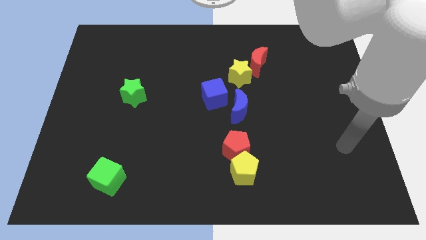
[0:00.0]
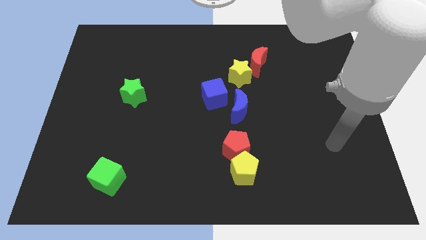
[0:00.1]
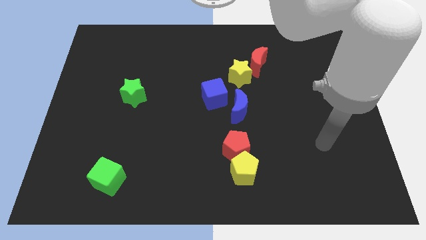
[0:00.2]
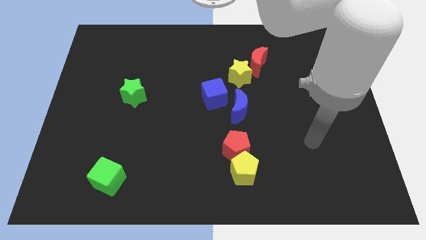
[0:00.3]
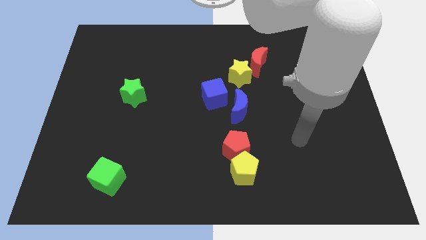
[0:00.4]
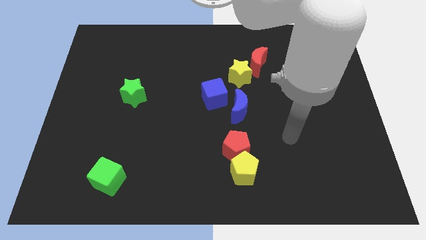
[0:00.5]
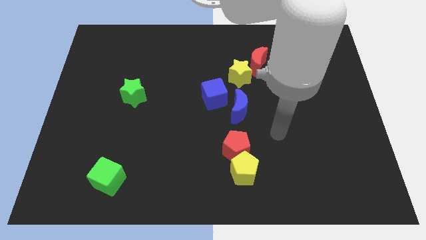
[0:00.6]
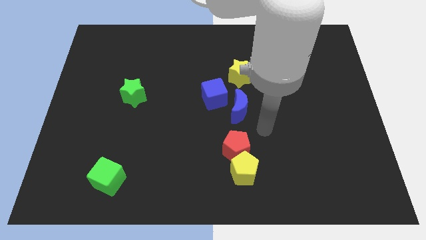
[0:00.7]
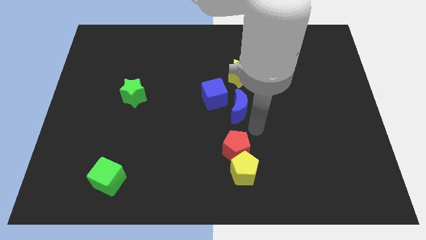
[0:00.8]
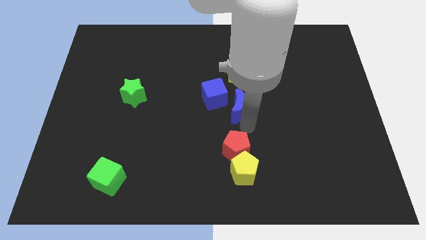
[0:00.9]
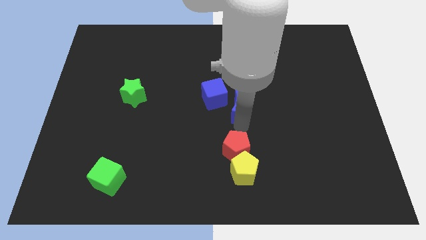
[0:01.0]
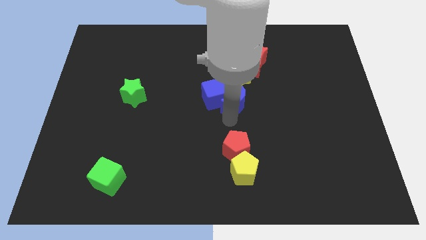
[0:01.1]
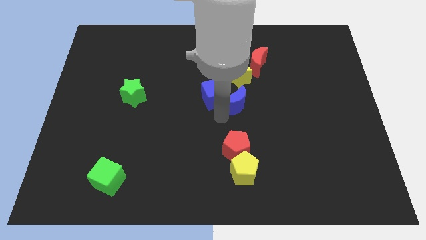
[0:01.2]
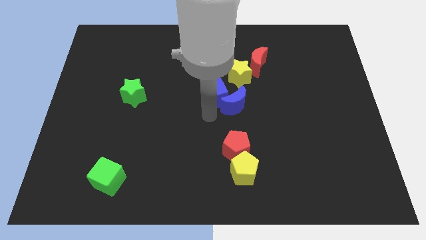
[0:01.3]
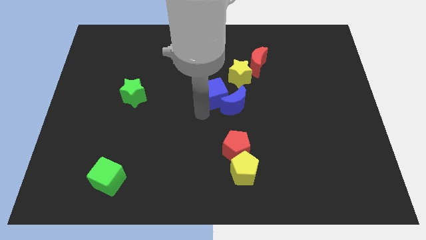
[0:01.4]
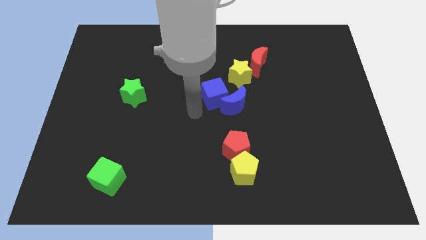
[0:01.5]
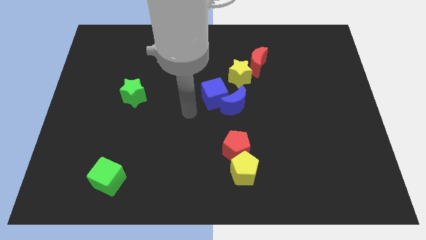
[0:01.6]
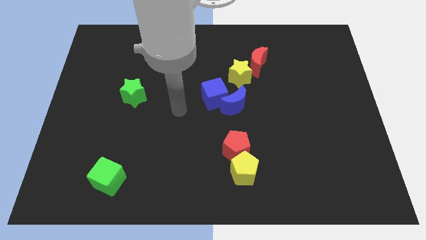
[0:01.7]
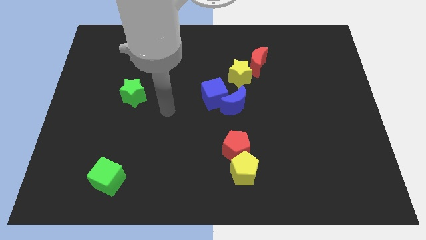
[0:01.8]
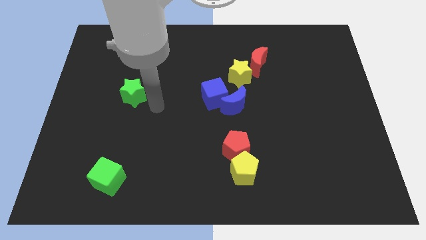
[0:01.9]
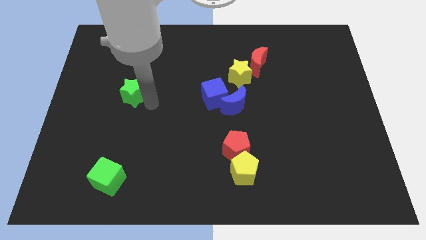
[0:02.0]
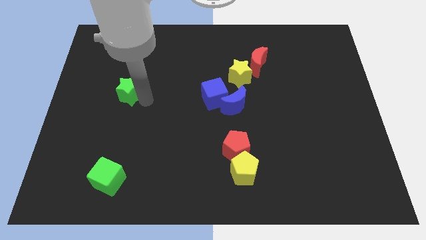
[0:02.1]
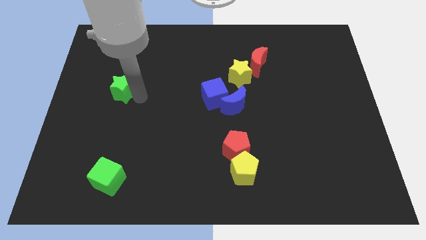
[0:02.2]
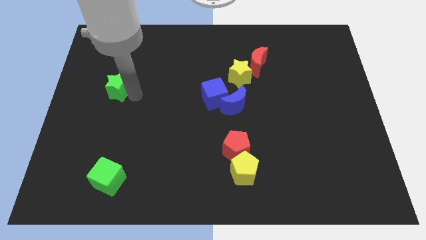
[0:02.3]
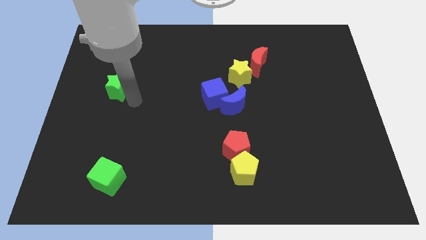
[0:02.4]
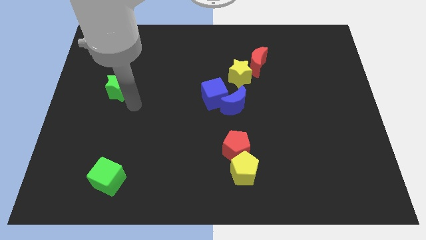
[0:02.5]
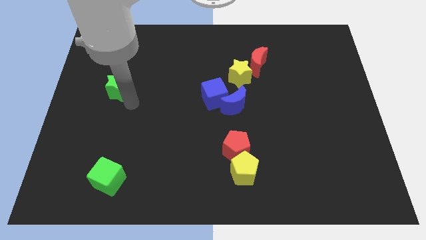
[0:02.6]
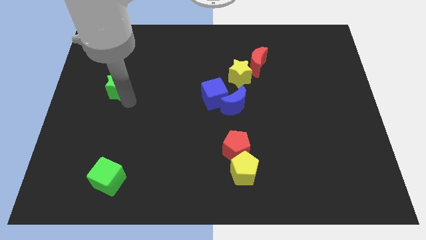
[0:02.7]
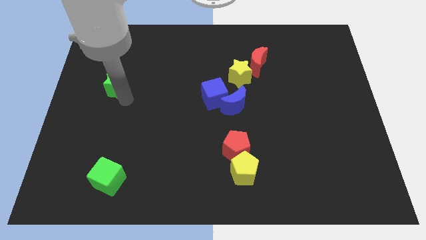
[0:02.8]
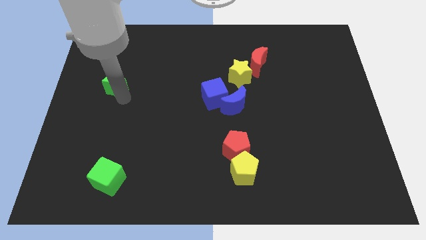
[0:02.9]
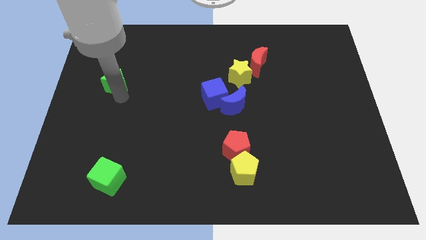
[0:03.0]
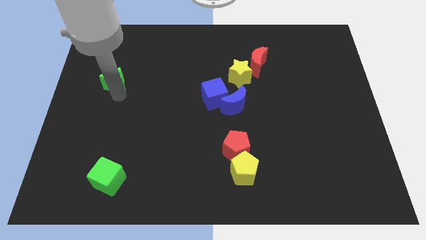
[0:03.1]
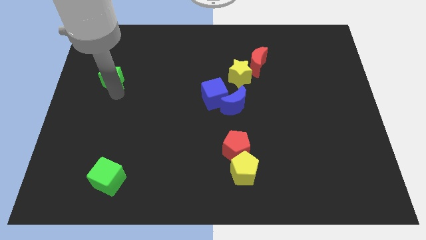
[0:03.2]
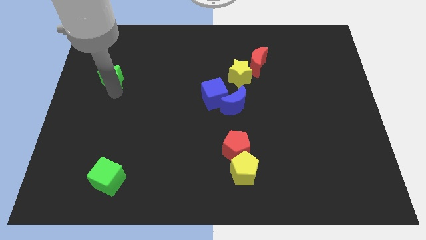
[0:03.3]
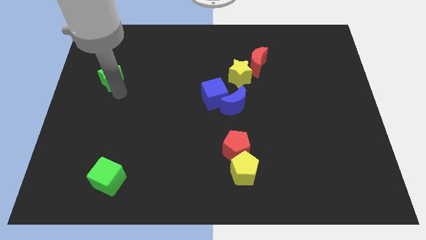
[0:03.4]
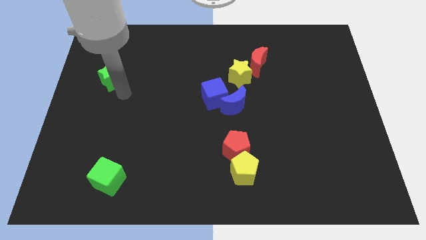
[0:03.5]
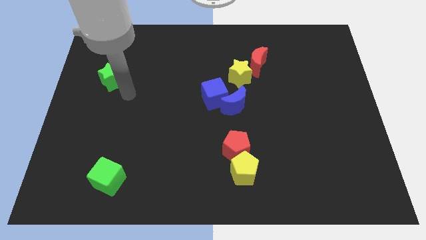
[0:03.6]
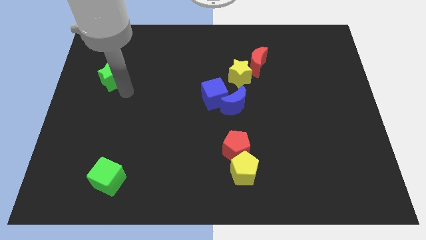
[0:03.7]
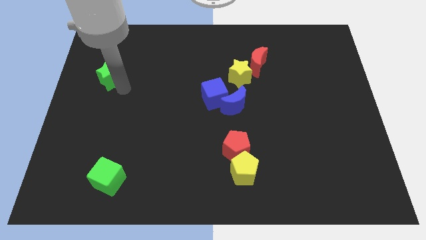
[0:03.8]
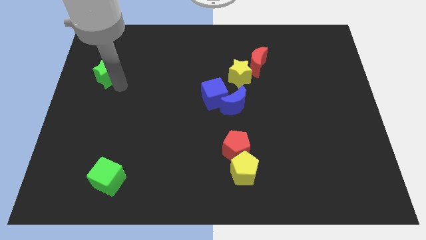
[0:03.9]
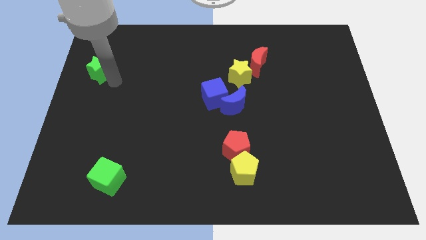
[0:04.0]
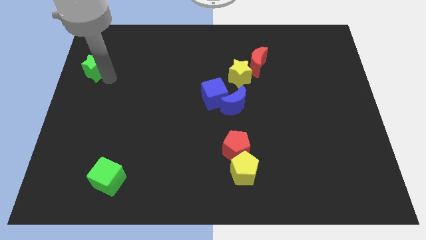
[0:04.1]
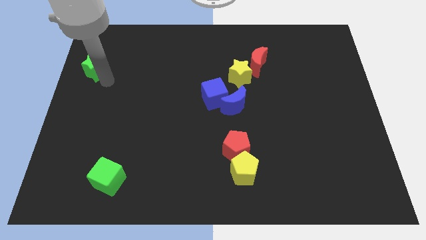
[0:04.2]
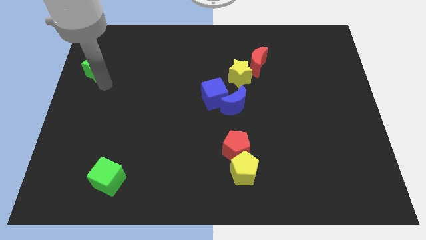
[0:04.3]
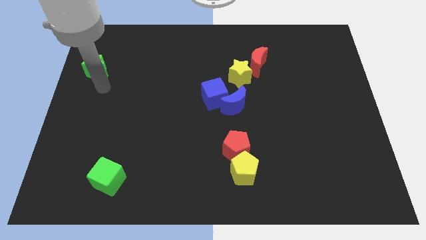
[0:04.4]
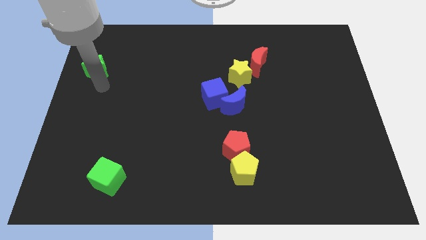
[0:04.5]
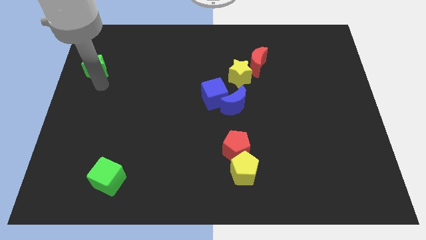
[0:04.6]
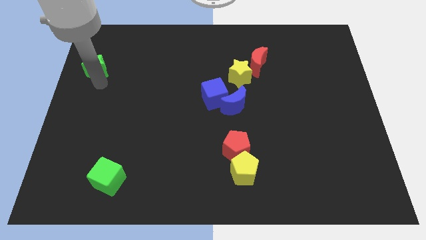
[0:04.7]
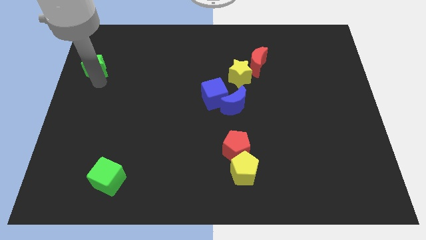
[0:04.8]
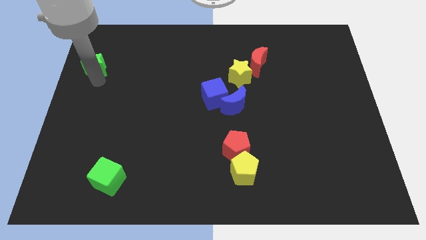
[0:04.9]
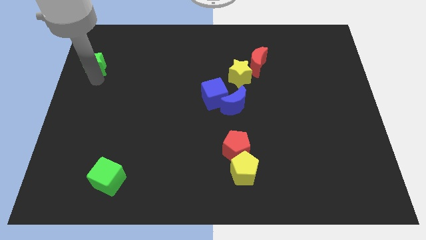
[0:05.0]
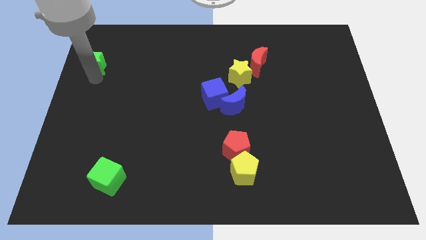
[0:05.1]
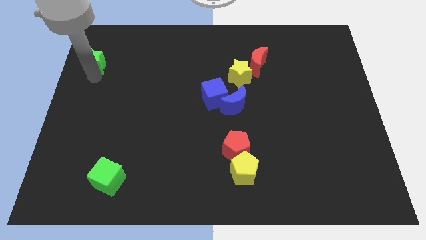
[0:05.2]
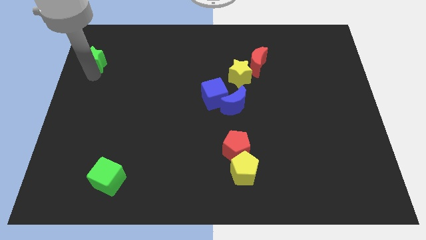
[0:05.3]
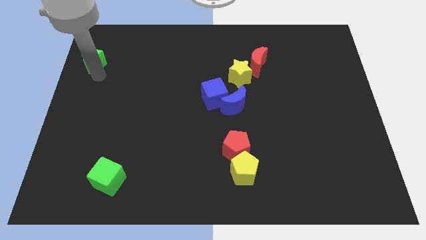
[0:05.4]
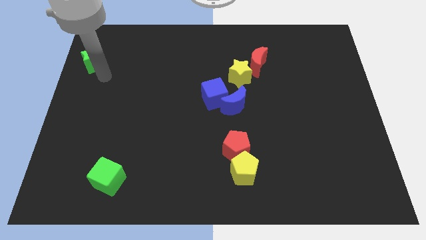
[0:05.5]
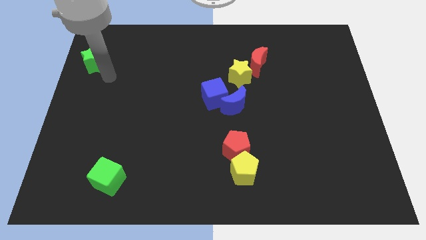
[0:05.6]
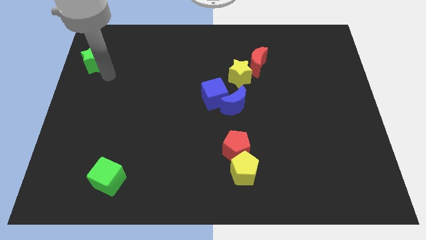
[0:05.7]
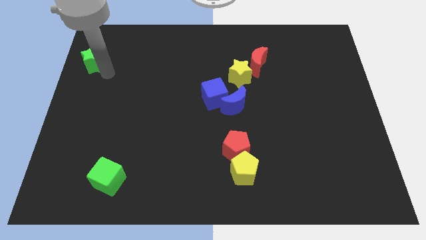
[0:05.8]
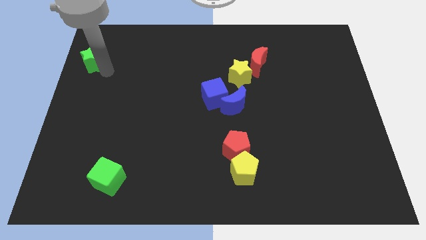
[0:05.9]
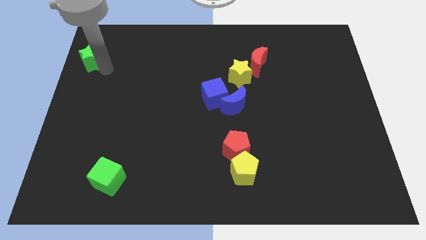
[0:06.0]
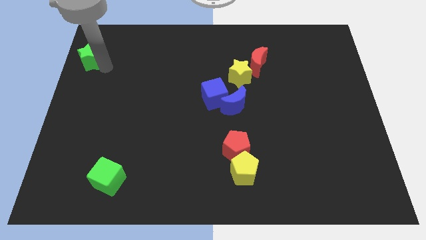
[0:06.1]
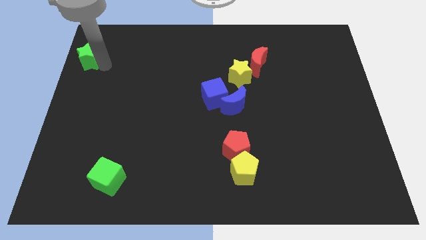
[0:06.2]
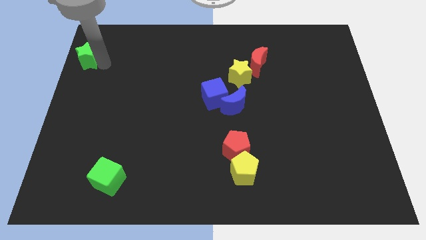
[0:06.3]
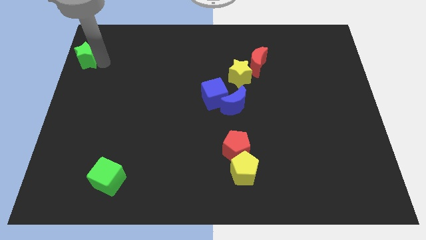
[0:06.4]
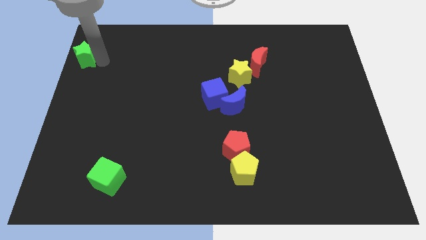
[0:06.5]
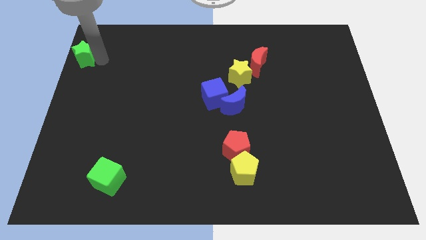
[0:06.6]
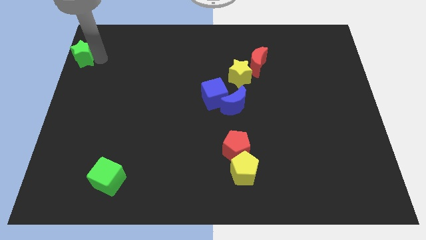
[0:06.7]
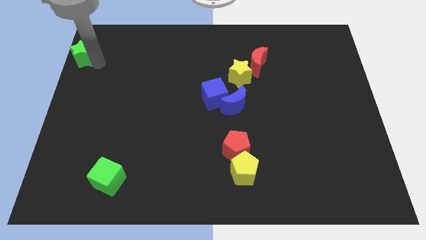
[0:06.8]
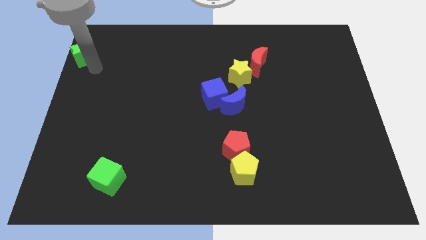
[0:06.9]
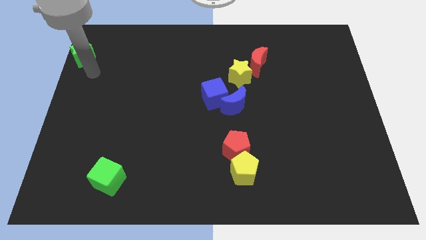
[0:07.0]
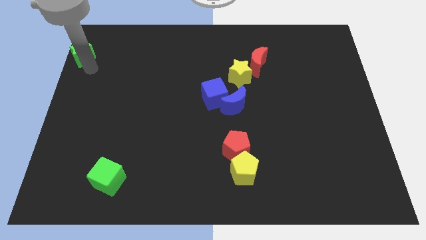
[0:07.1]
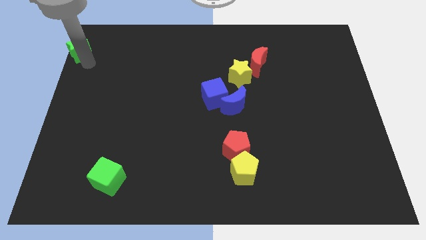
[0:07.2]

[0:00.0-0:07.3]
slide the green star to the top left of the board
